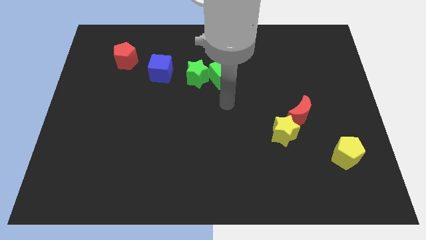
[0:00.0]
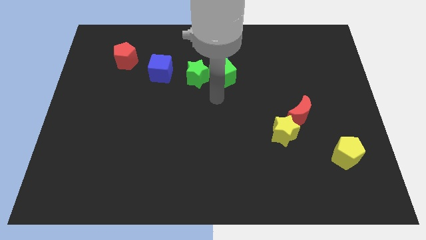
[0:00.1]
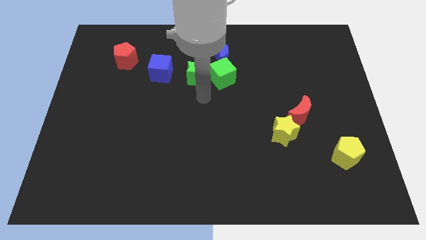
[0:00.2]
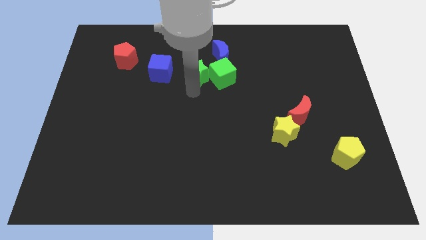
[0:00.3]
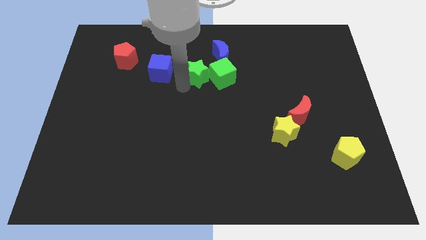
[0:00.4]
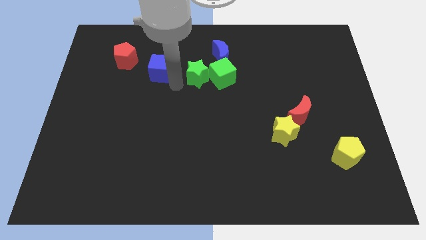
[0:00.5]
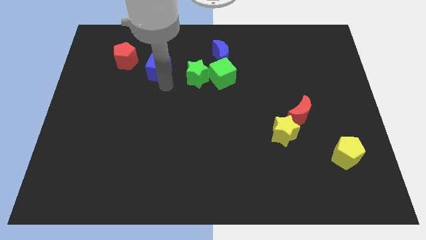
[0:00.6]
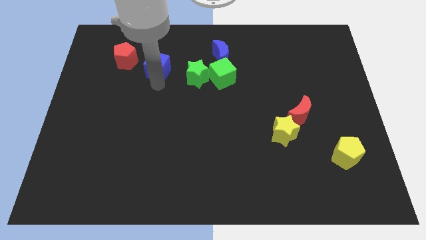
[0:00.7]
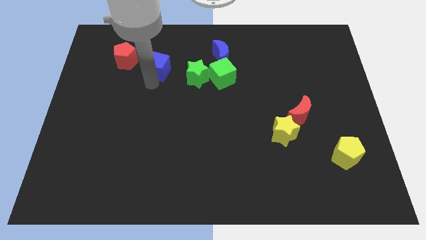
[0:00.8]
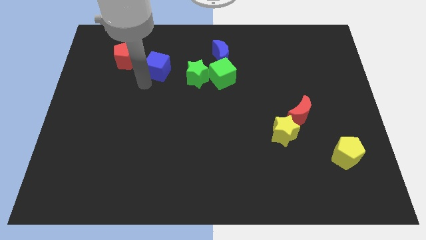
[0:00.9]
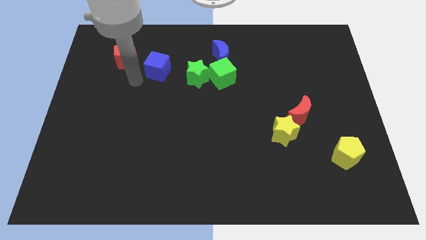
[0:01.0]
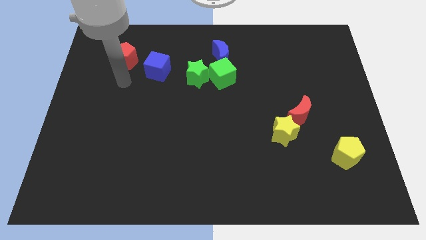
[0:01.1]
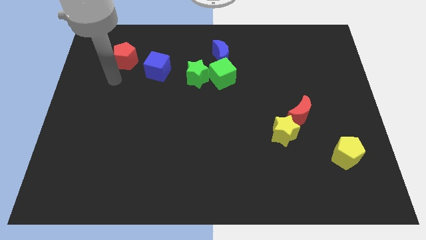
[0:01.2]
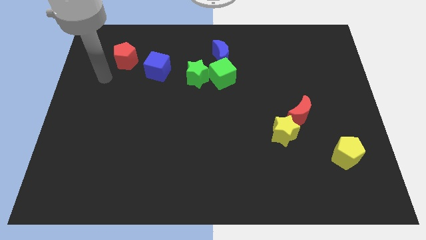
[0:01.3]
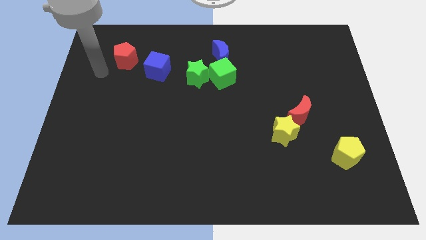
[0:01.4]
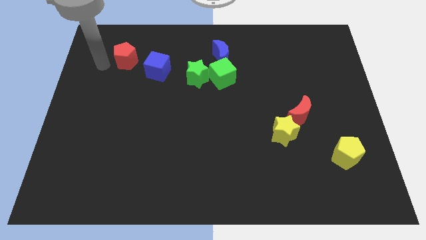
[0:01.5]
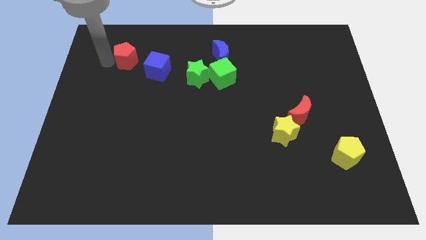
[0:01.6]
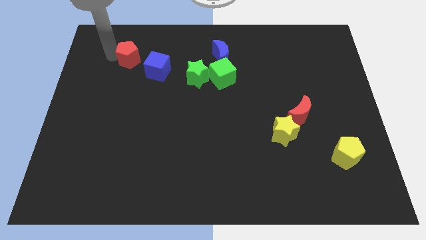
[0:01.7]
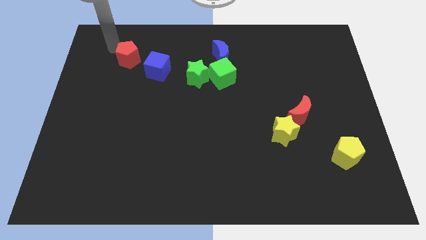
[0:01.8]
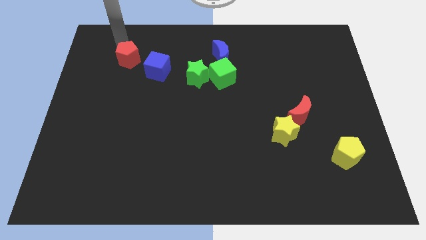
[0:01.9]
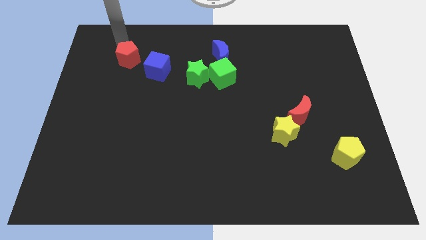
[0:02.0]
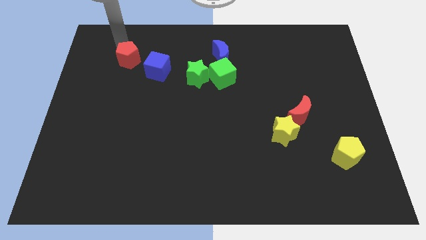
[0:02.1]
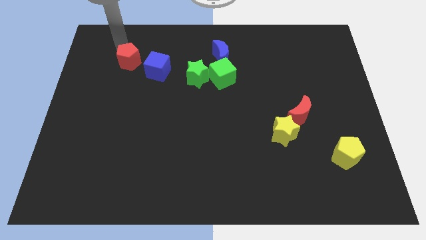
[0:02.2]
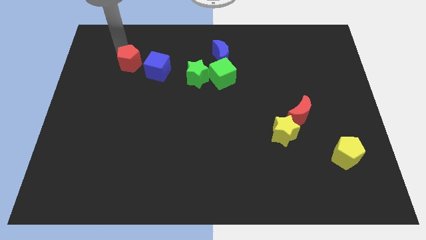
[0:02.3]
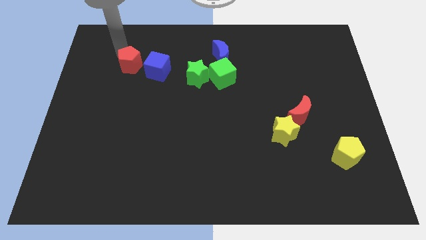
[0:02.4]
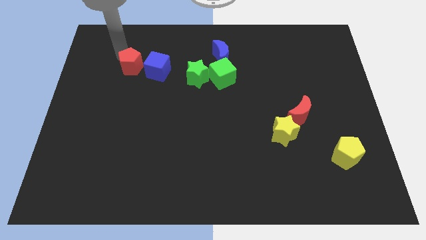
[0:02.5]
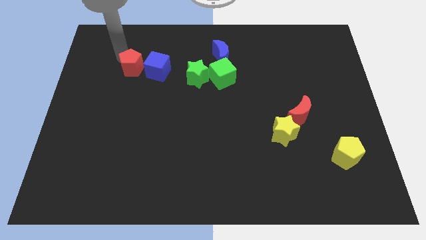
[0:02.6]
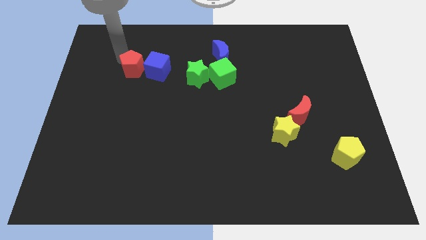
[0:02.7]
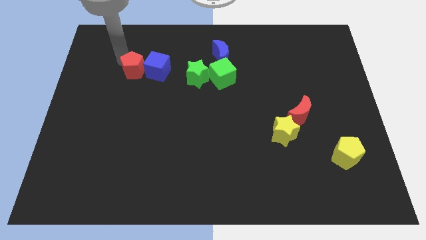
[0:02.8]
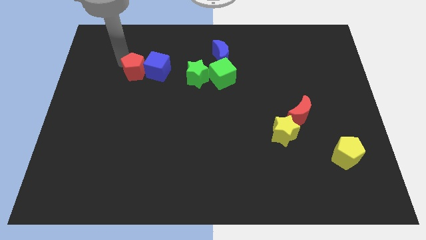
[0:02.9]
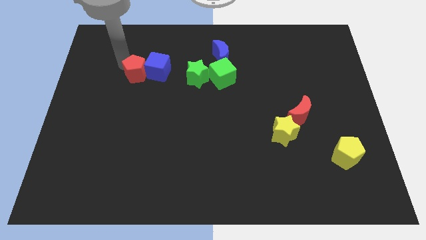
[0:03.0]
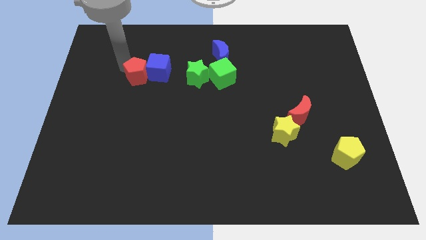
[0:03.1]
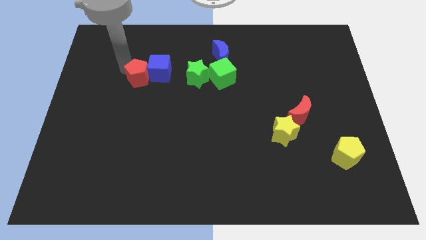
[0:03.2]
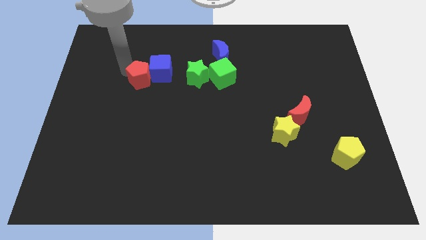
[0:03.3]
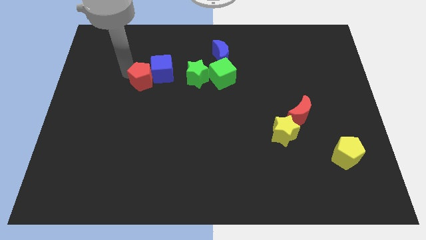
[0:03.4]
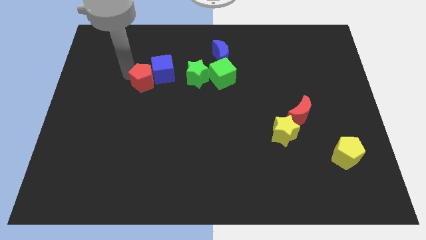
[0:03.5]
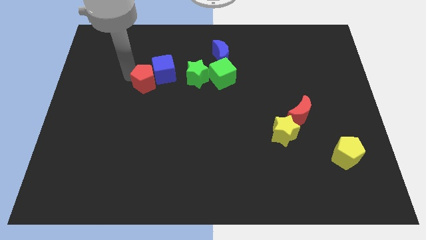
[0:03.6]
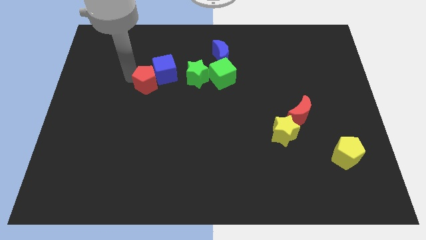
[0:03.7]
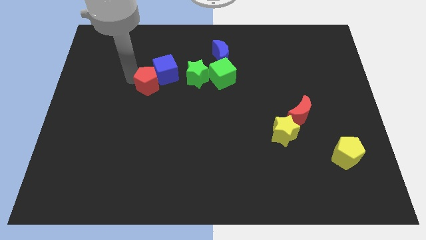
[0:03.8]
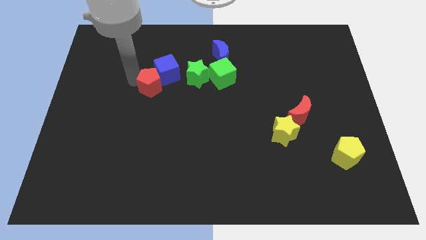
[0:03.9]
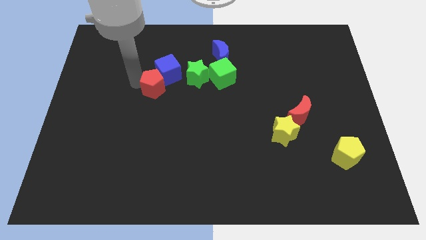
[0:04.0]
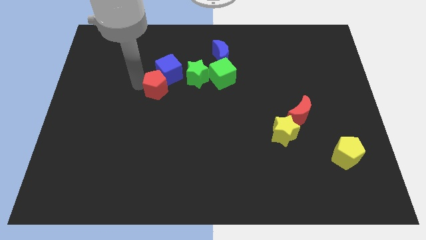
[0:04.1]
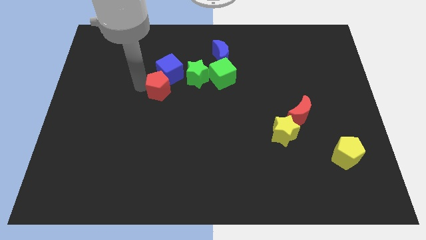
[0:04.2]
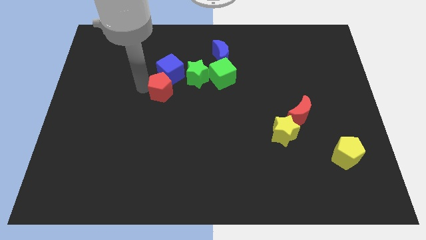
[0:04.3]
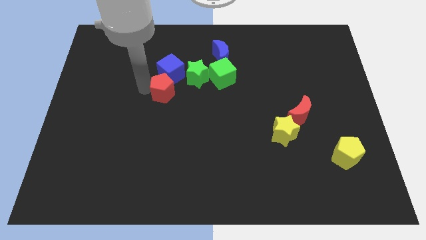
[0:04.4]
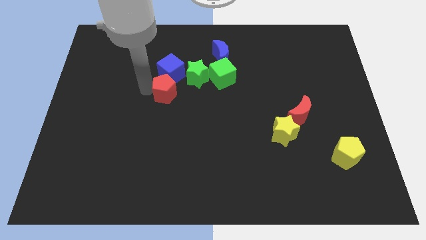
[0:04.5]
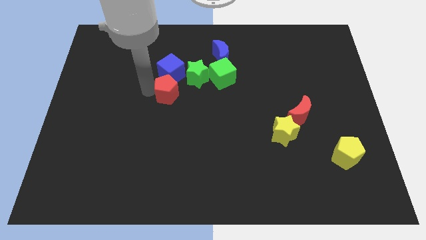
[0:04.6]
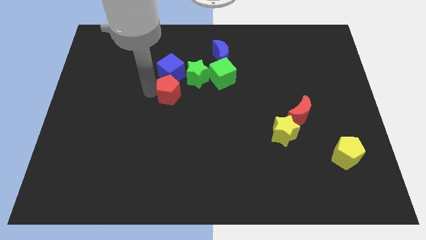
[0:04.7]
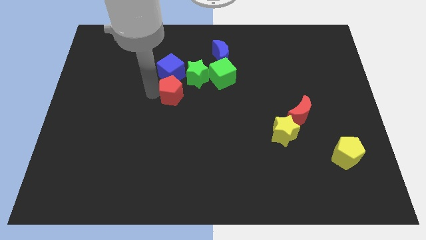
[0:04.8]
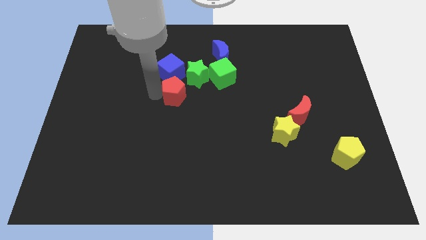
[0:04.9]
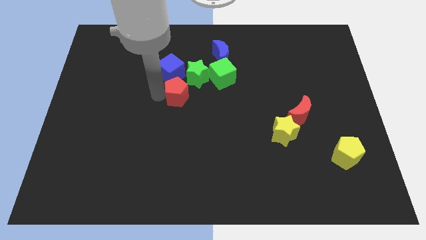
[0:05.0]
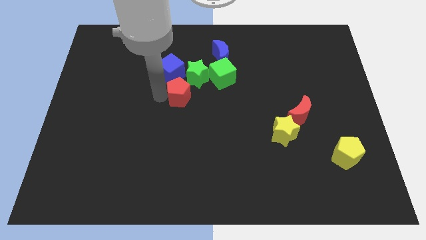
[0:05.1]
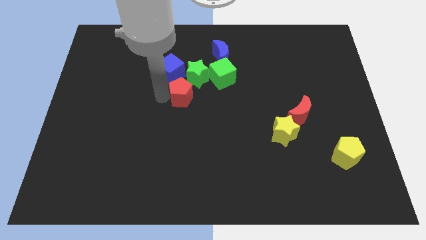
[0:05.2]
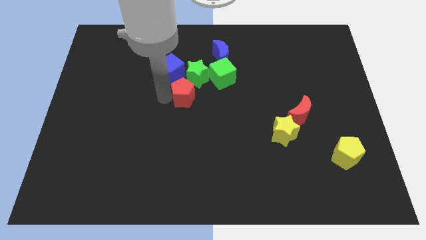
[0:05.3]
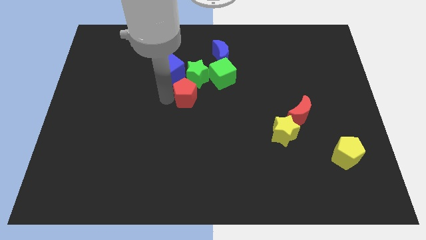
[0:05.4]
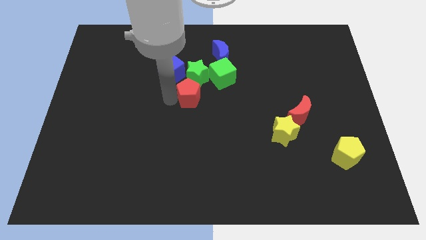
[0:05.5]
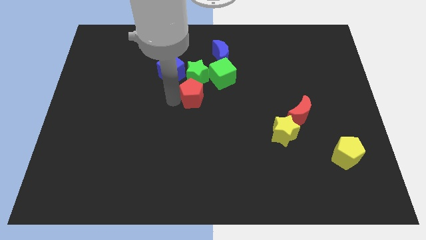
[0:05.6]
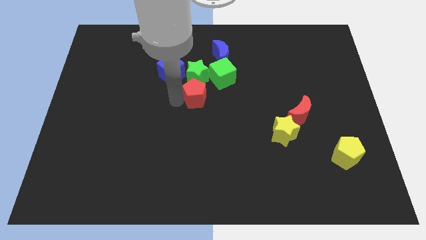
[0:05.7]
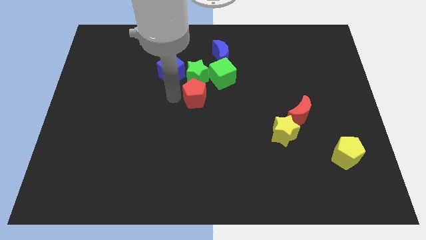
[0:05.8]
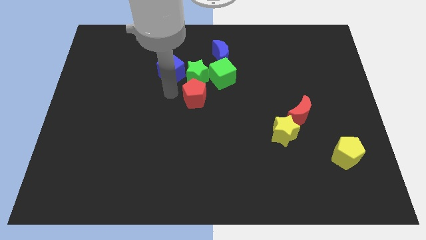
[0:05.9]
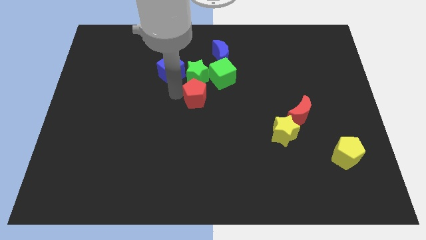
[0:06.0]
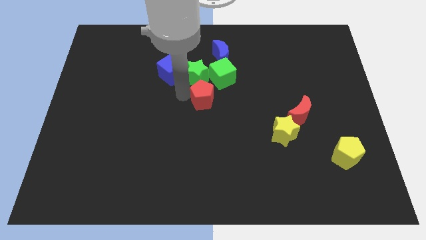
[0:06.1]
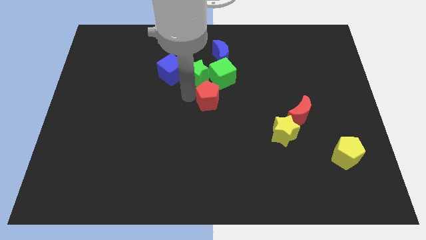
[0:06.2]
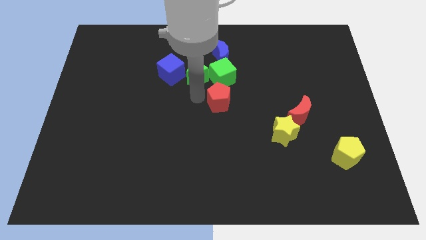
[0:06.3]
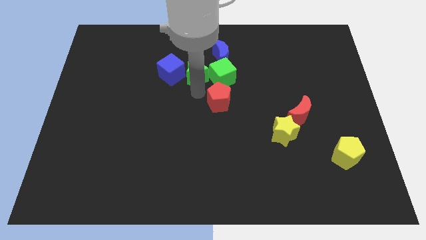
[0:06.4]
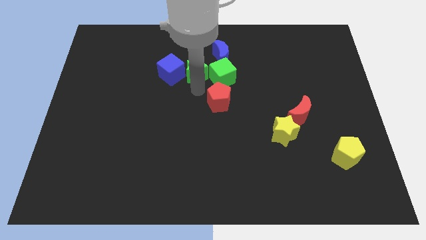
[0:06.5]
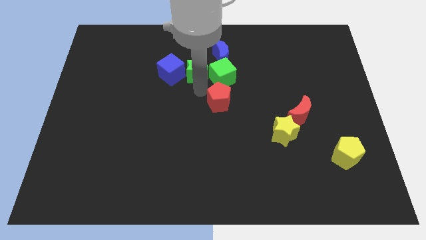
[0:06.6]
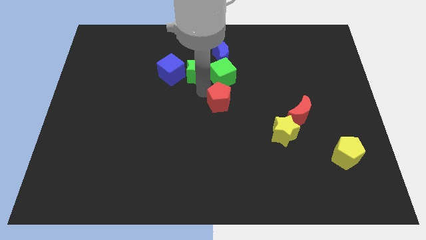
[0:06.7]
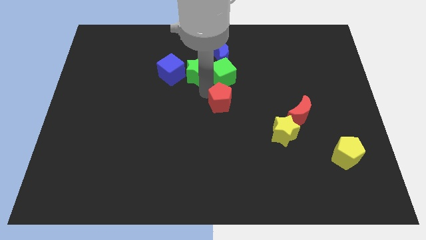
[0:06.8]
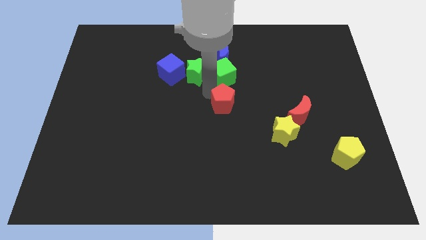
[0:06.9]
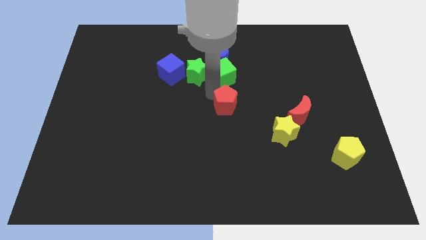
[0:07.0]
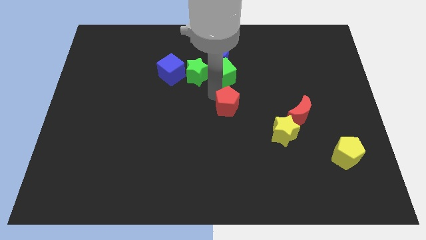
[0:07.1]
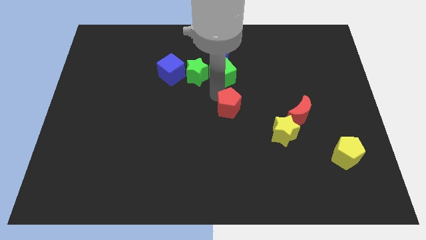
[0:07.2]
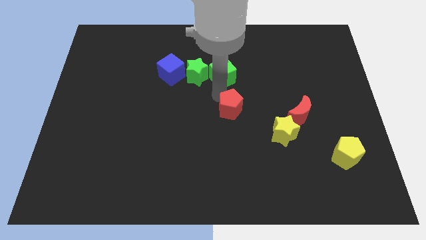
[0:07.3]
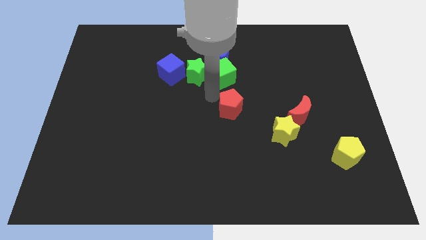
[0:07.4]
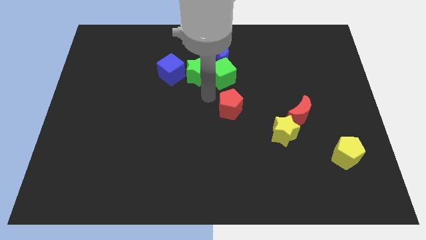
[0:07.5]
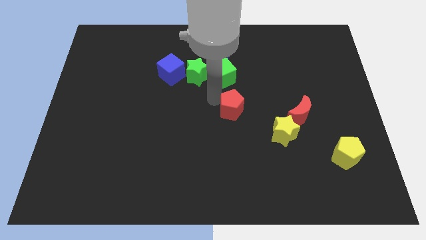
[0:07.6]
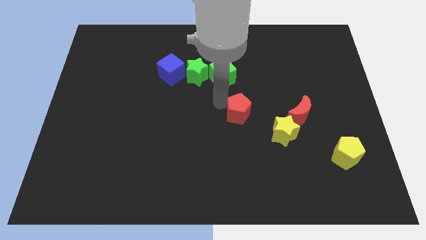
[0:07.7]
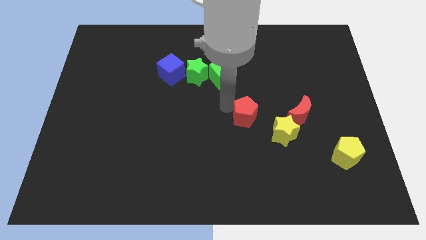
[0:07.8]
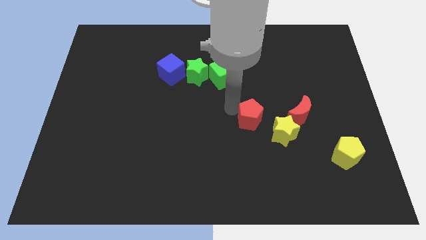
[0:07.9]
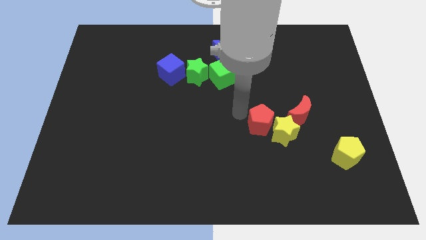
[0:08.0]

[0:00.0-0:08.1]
put the red pentagon towards the yellow star
